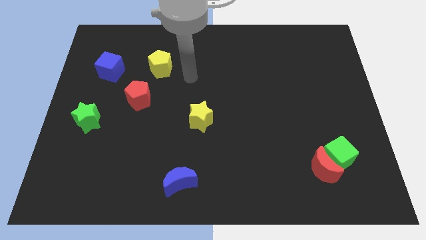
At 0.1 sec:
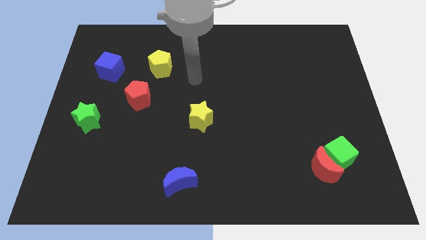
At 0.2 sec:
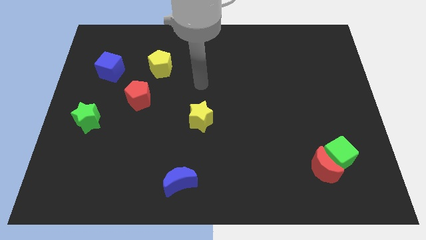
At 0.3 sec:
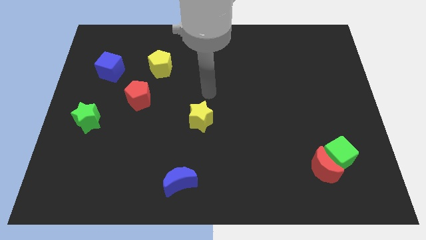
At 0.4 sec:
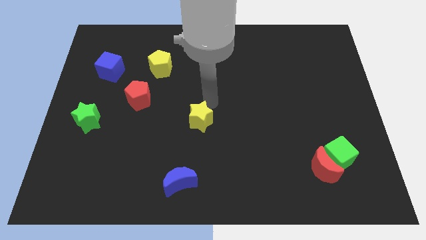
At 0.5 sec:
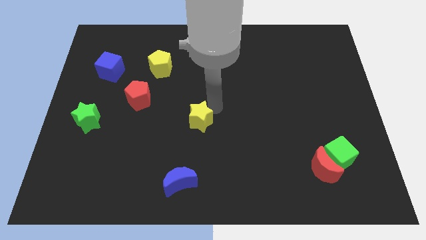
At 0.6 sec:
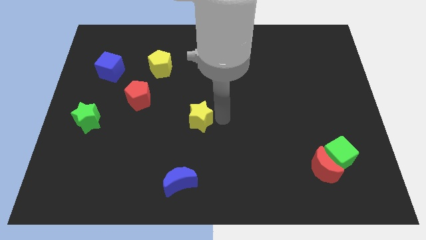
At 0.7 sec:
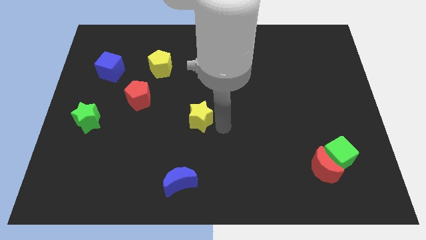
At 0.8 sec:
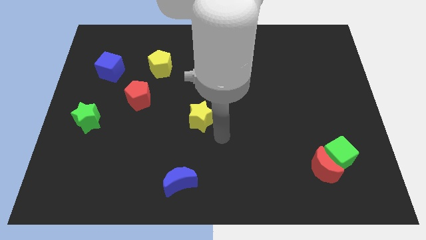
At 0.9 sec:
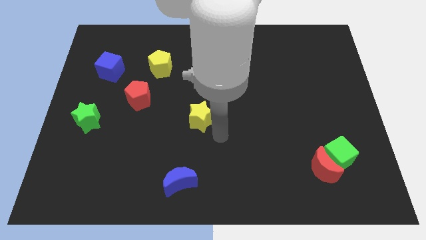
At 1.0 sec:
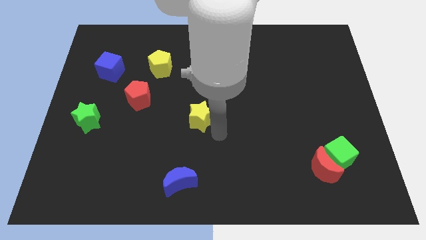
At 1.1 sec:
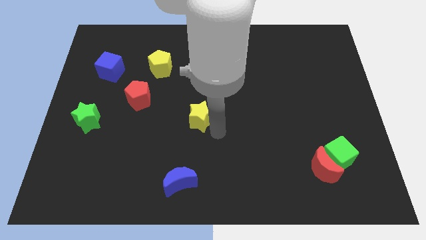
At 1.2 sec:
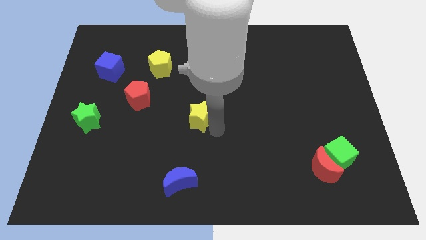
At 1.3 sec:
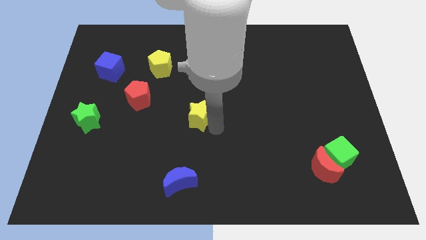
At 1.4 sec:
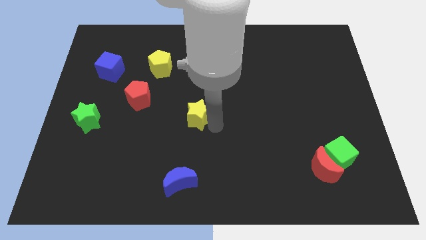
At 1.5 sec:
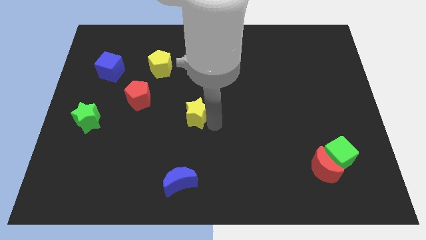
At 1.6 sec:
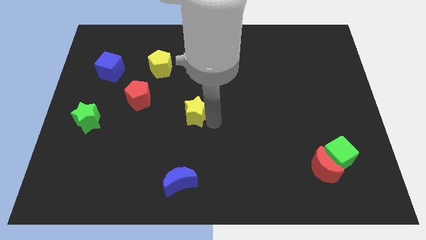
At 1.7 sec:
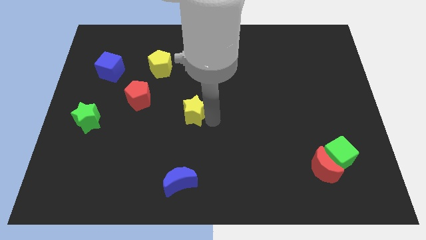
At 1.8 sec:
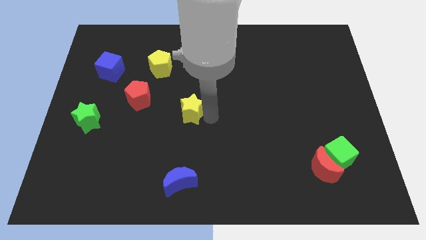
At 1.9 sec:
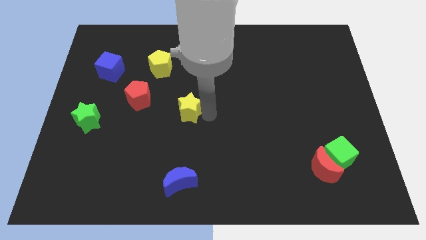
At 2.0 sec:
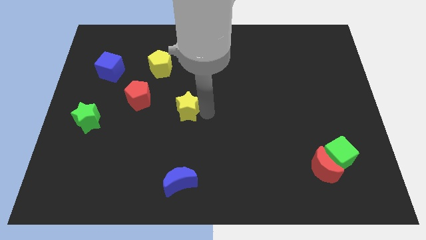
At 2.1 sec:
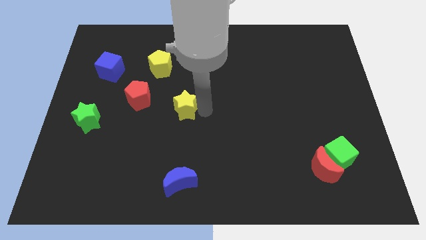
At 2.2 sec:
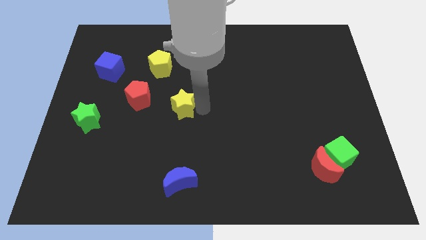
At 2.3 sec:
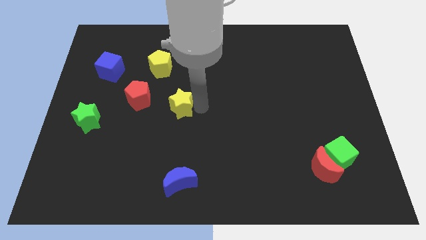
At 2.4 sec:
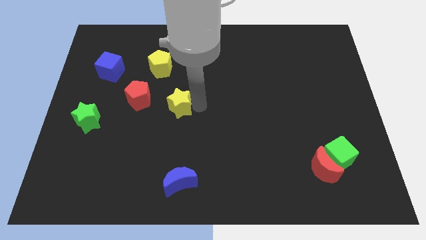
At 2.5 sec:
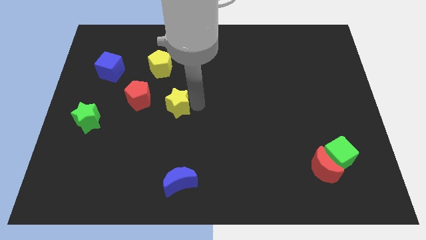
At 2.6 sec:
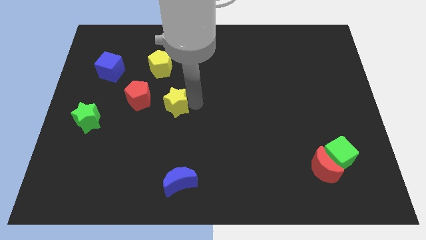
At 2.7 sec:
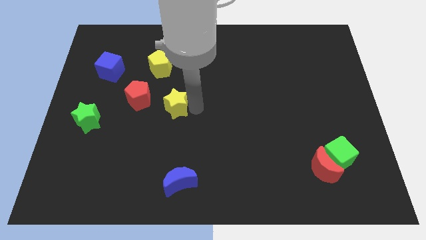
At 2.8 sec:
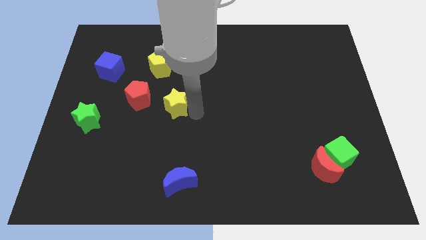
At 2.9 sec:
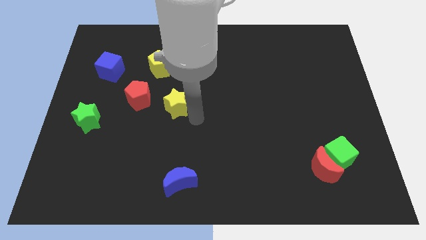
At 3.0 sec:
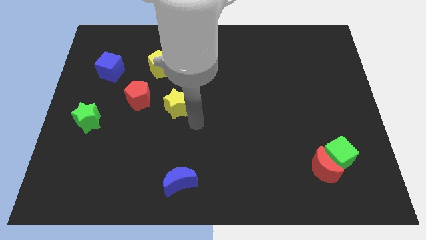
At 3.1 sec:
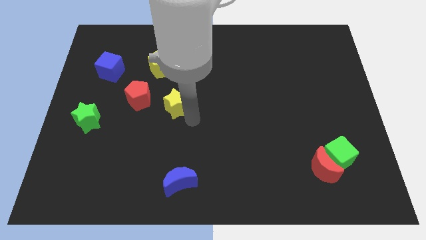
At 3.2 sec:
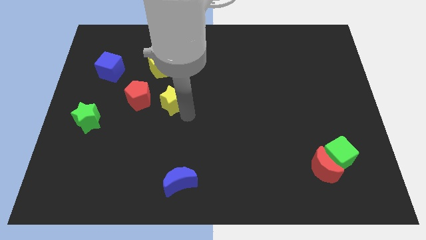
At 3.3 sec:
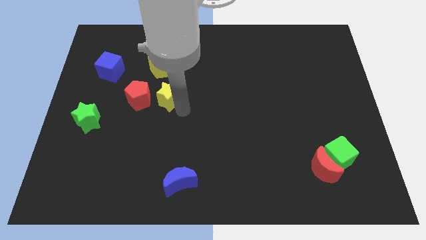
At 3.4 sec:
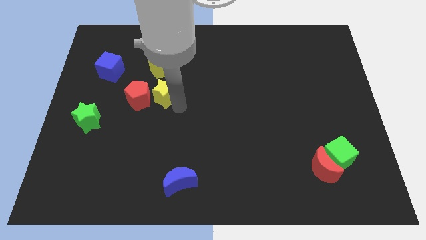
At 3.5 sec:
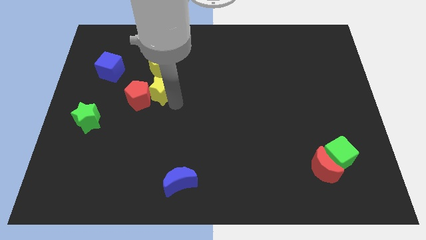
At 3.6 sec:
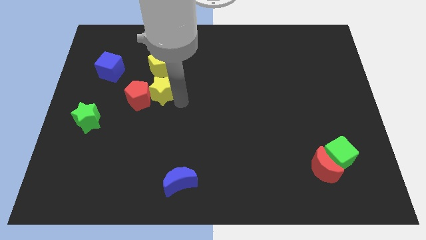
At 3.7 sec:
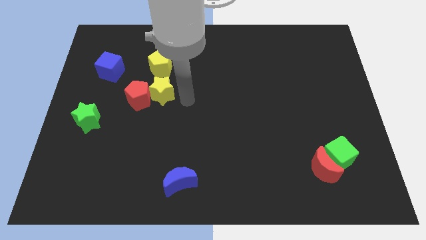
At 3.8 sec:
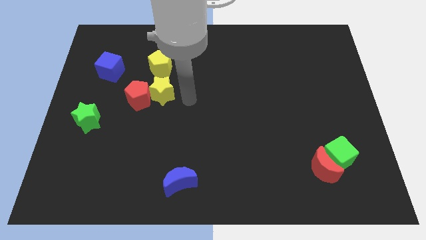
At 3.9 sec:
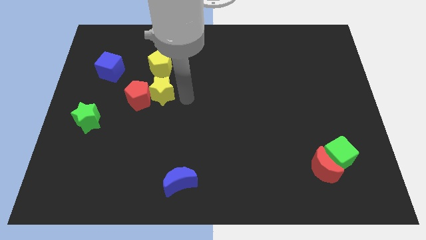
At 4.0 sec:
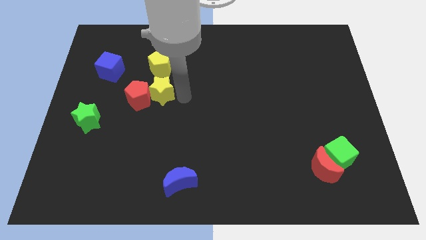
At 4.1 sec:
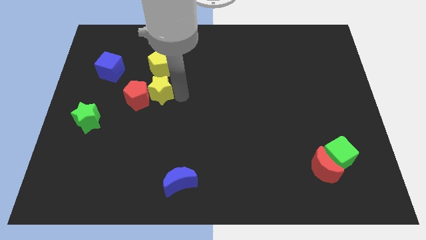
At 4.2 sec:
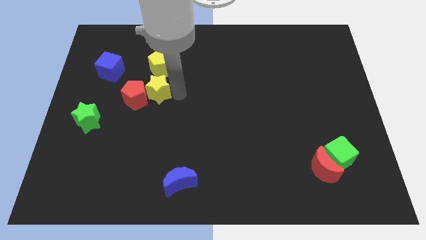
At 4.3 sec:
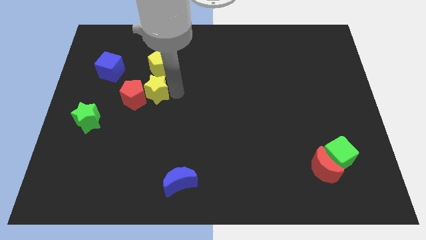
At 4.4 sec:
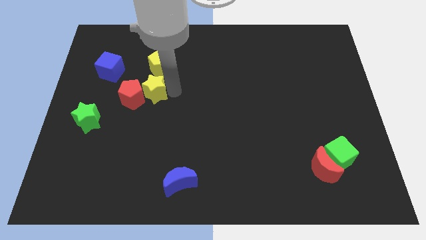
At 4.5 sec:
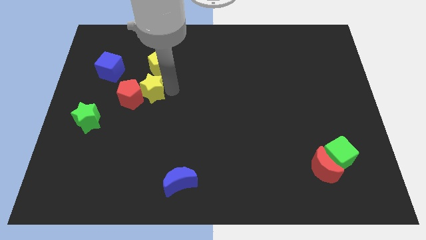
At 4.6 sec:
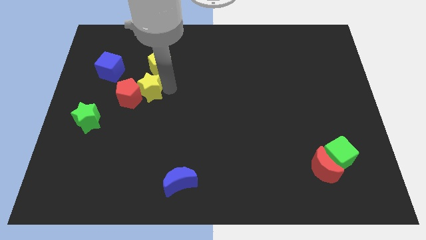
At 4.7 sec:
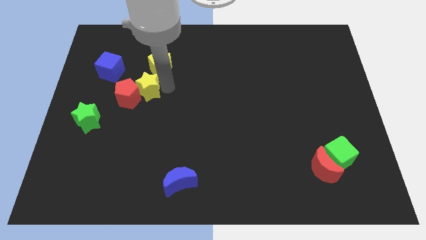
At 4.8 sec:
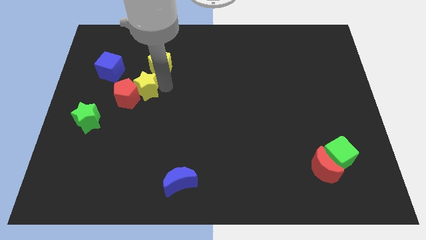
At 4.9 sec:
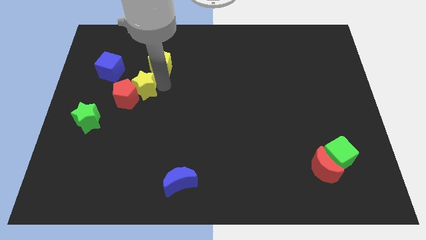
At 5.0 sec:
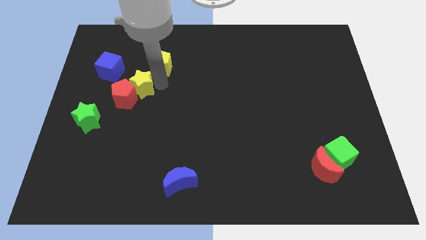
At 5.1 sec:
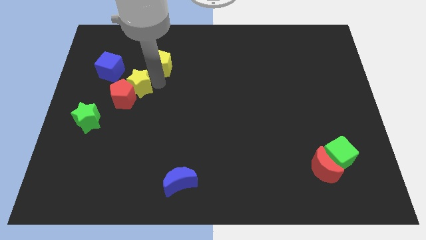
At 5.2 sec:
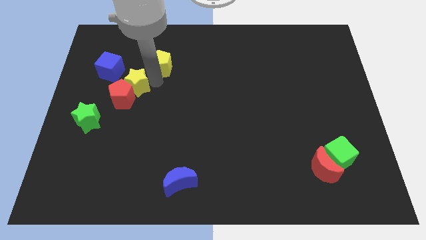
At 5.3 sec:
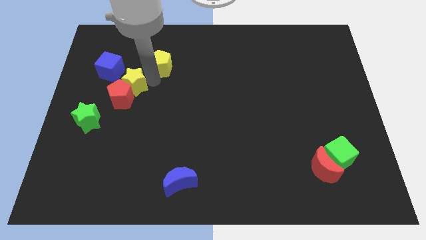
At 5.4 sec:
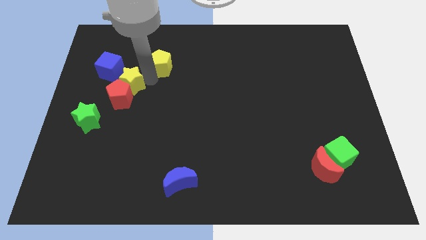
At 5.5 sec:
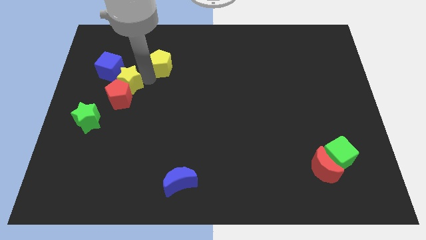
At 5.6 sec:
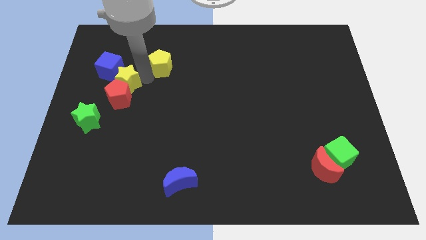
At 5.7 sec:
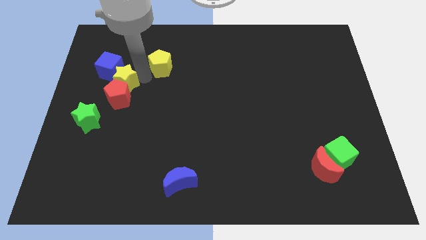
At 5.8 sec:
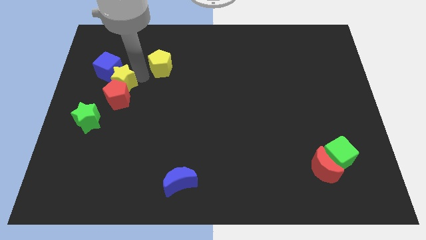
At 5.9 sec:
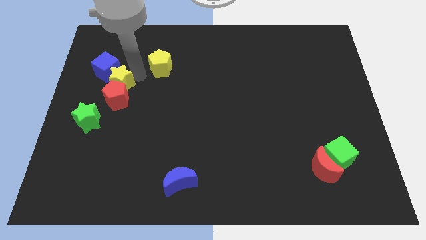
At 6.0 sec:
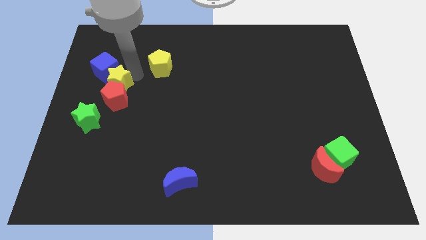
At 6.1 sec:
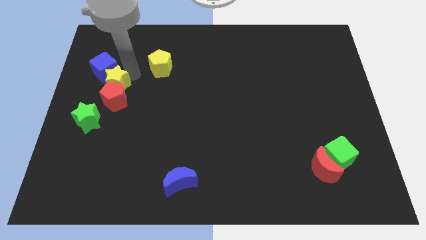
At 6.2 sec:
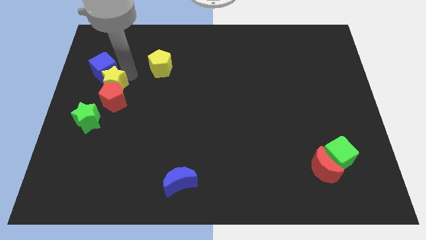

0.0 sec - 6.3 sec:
put the yellow star above the green star

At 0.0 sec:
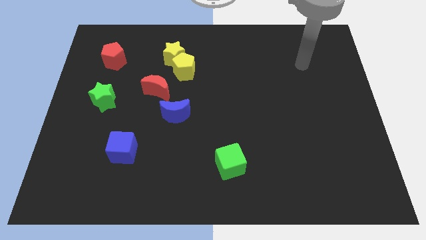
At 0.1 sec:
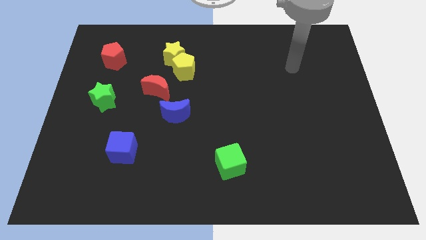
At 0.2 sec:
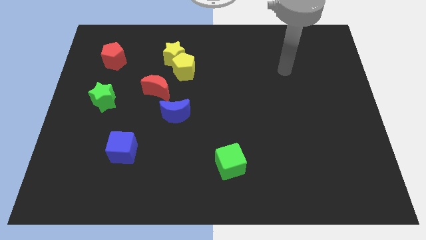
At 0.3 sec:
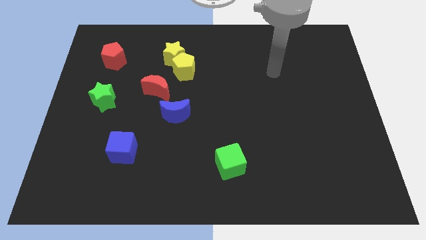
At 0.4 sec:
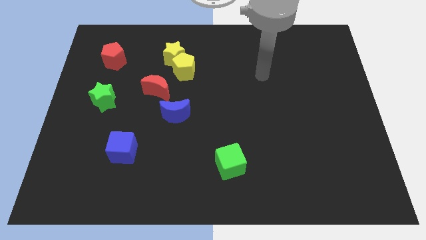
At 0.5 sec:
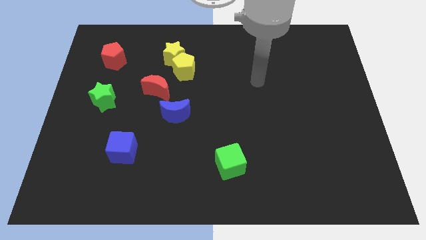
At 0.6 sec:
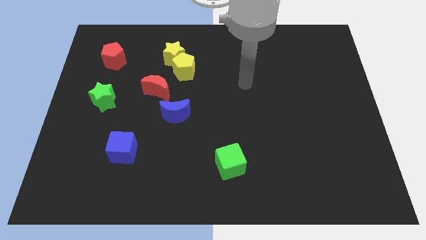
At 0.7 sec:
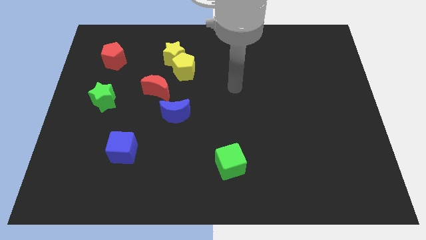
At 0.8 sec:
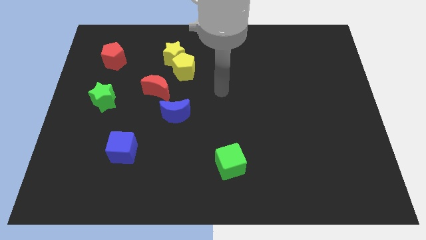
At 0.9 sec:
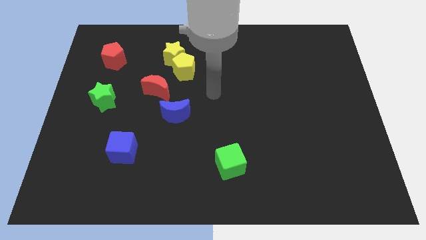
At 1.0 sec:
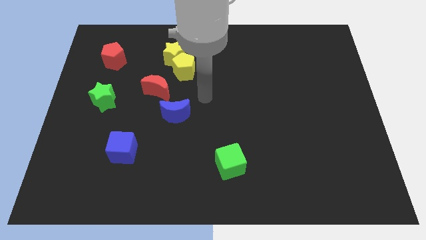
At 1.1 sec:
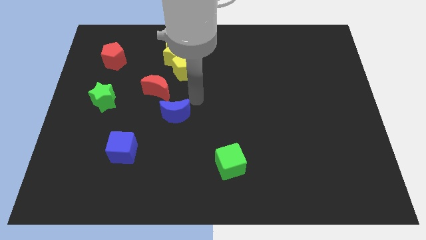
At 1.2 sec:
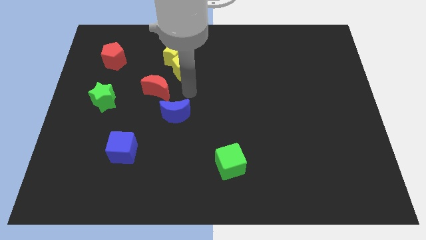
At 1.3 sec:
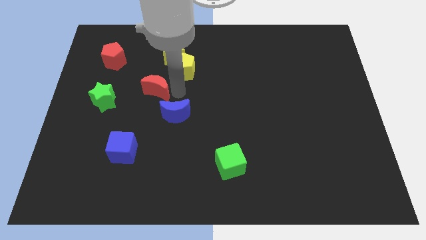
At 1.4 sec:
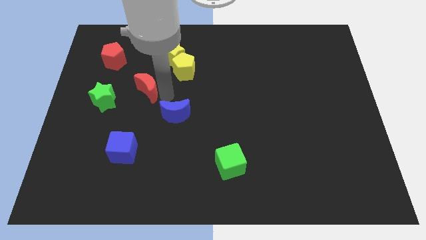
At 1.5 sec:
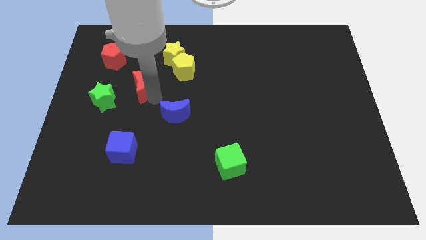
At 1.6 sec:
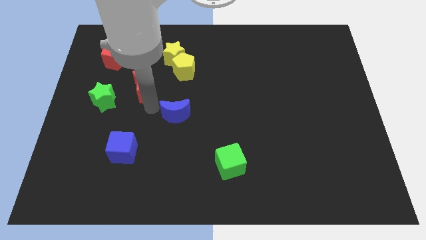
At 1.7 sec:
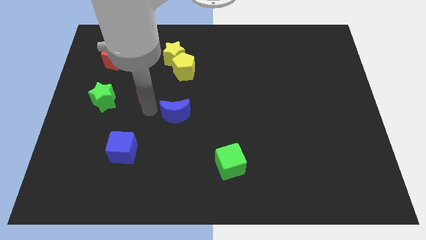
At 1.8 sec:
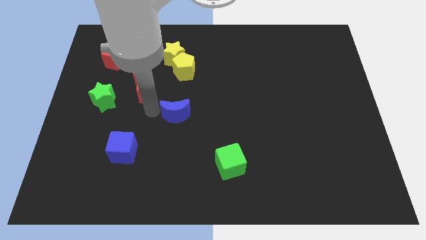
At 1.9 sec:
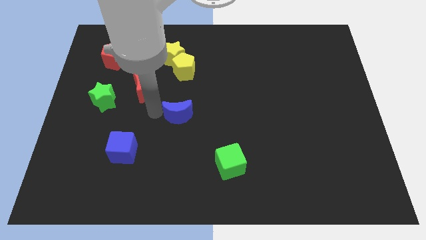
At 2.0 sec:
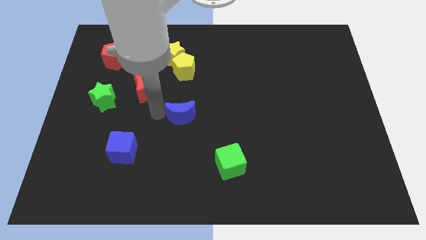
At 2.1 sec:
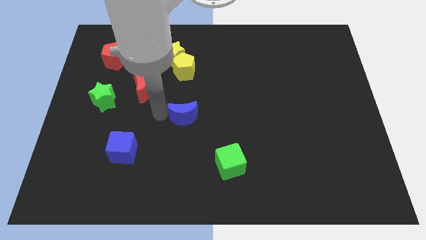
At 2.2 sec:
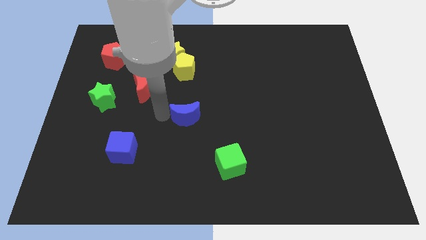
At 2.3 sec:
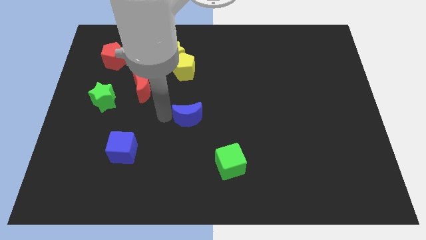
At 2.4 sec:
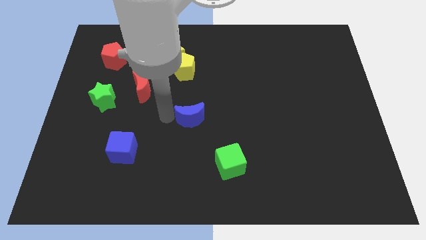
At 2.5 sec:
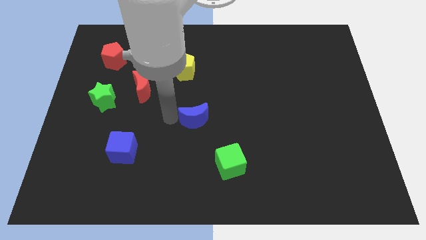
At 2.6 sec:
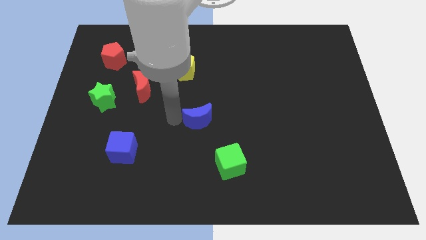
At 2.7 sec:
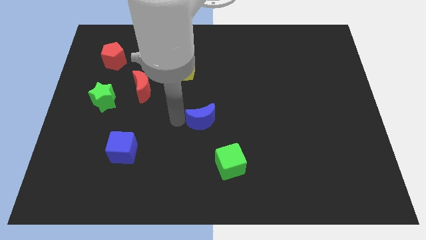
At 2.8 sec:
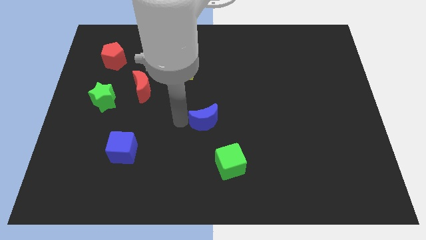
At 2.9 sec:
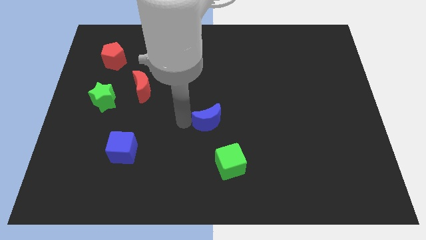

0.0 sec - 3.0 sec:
put the blue moon to the top side of the green cube
